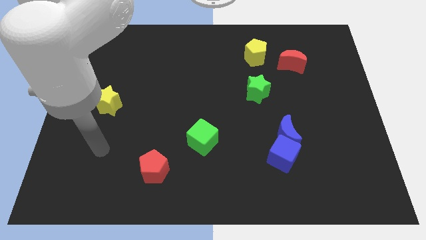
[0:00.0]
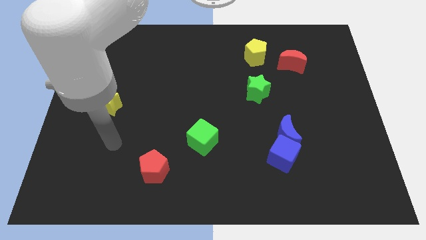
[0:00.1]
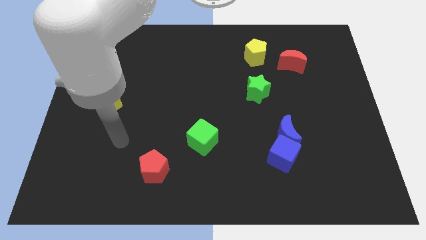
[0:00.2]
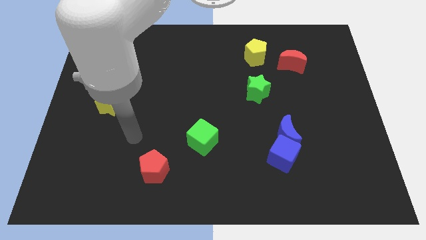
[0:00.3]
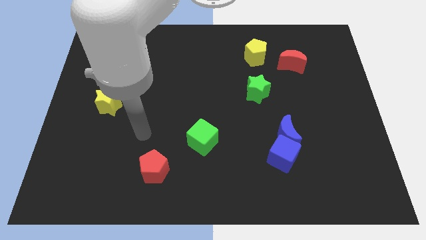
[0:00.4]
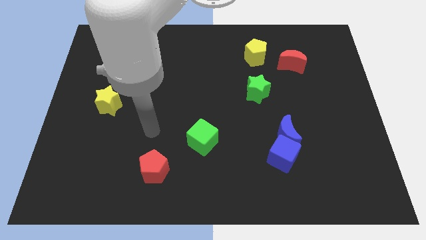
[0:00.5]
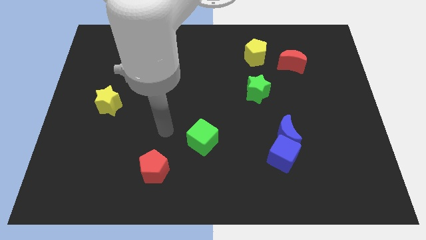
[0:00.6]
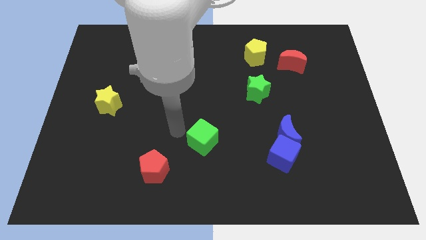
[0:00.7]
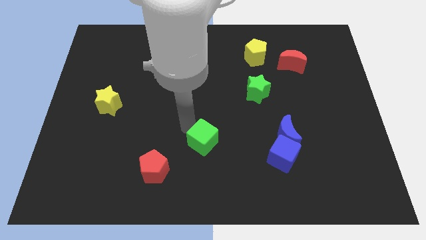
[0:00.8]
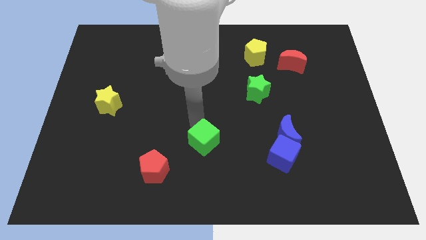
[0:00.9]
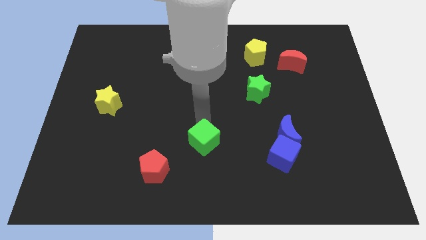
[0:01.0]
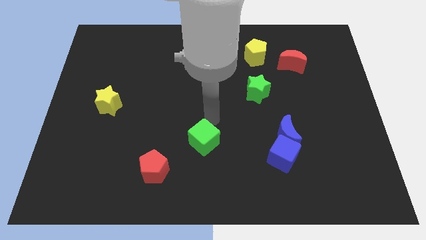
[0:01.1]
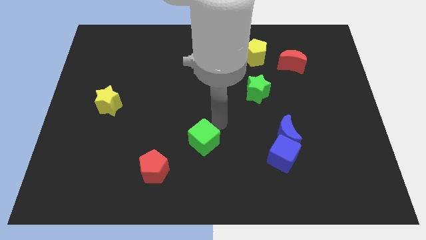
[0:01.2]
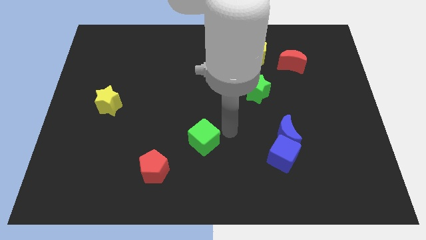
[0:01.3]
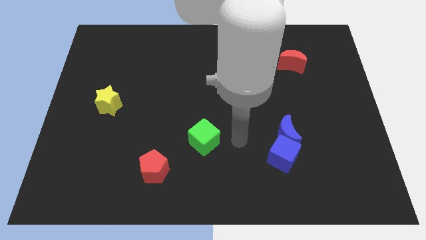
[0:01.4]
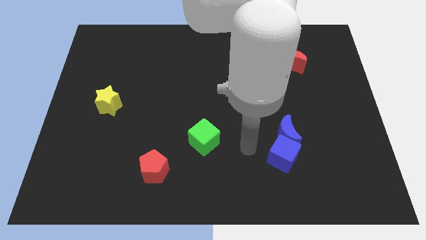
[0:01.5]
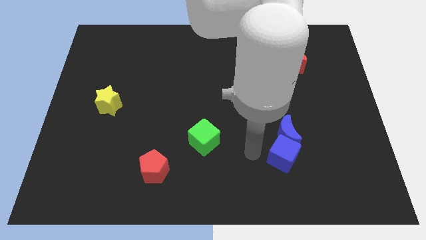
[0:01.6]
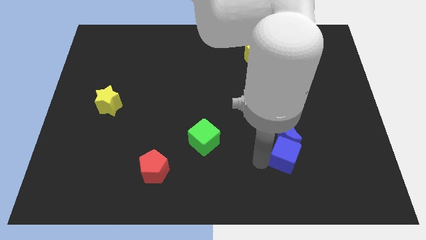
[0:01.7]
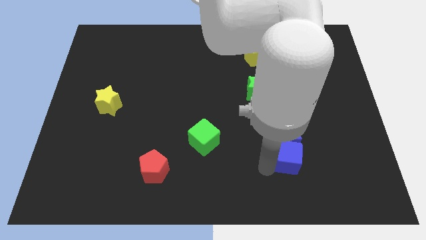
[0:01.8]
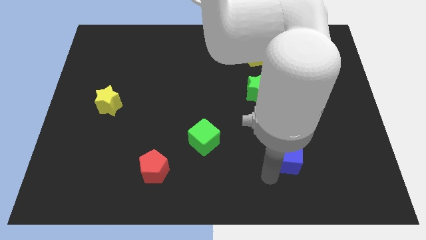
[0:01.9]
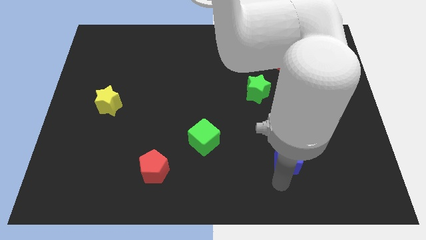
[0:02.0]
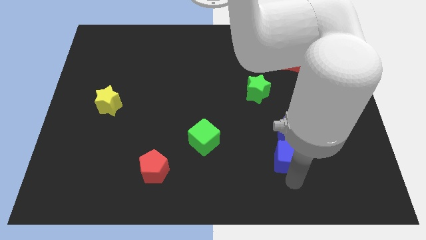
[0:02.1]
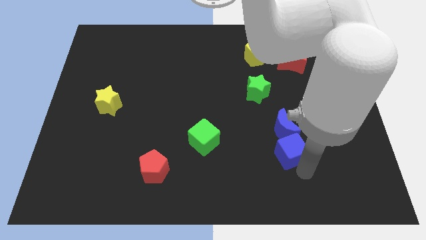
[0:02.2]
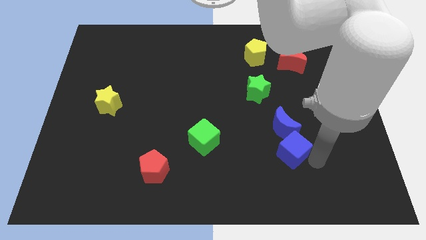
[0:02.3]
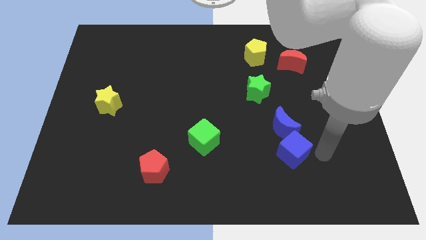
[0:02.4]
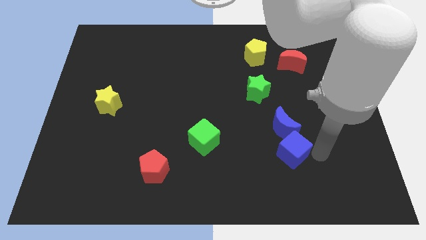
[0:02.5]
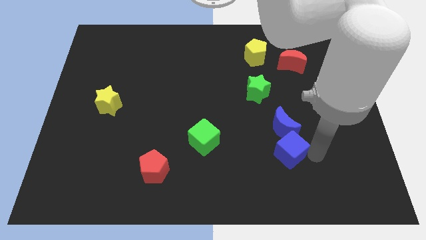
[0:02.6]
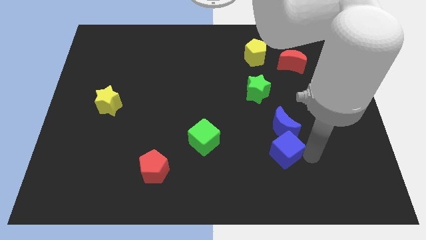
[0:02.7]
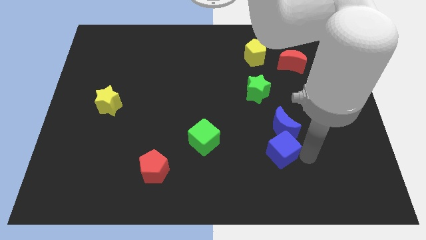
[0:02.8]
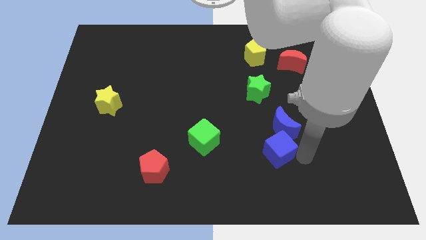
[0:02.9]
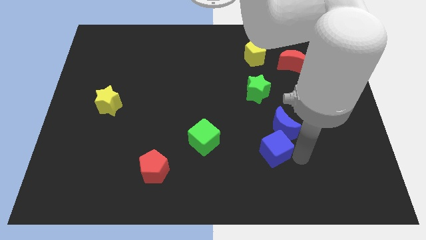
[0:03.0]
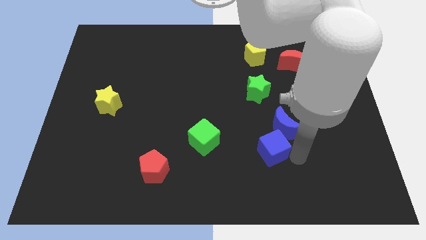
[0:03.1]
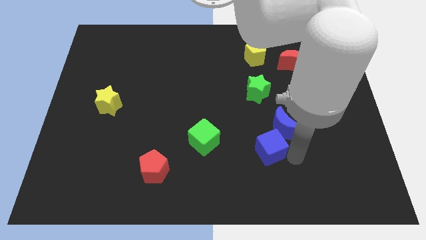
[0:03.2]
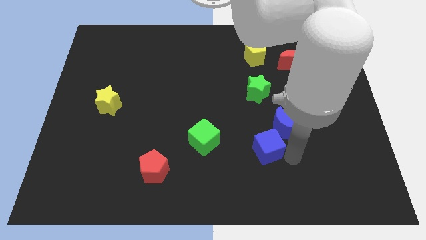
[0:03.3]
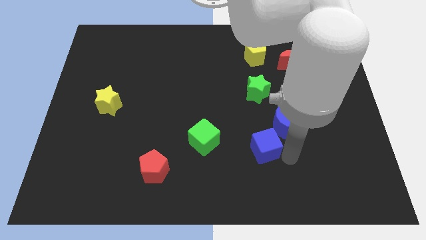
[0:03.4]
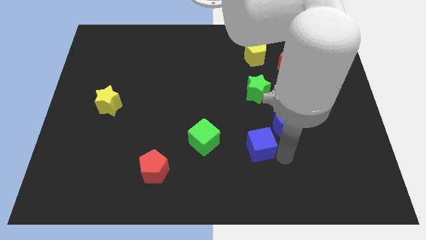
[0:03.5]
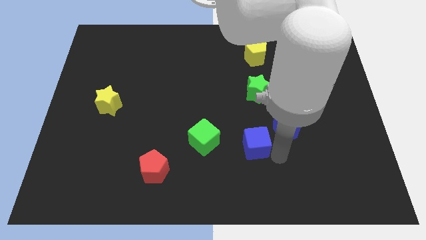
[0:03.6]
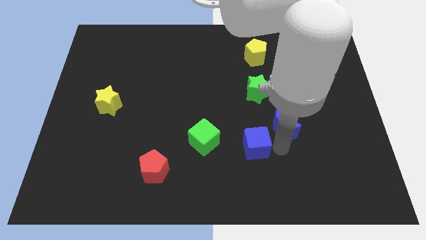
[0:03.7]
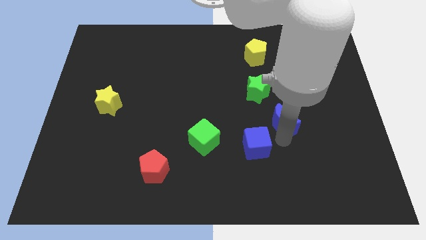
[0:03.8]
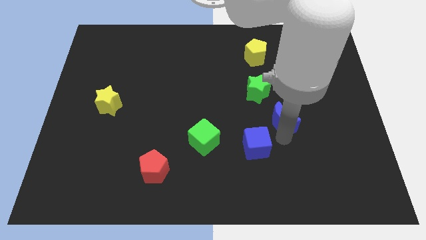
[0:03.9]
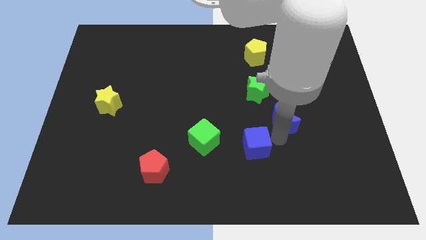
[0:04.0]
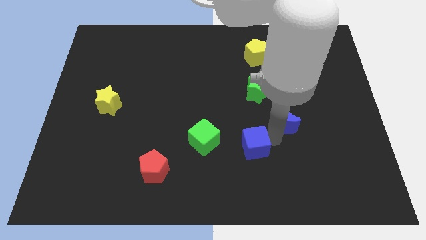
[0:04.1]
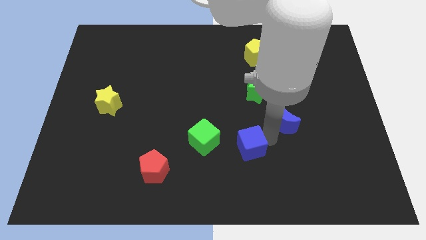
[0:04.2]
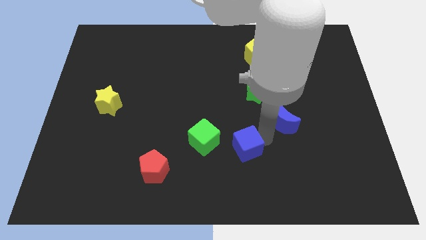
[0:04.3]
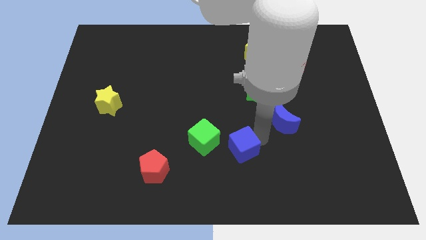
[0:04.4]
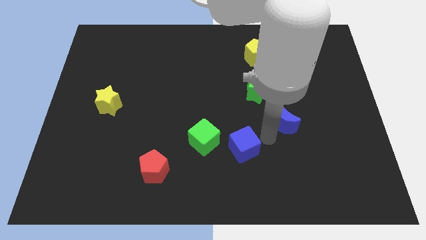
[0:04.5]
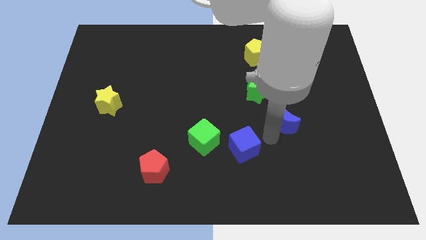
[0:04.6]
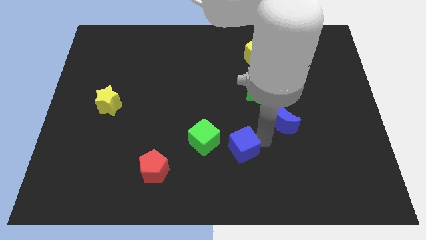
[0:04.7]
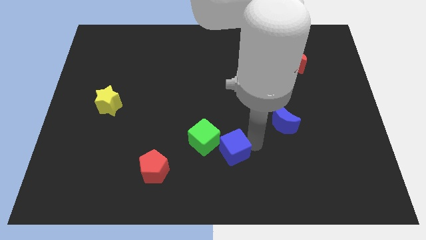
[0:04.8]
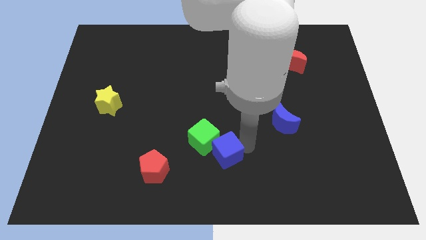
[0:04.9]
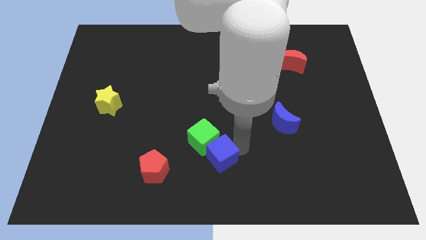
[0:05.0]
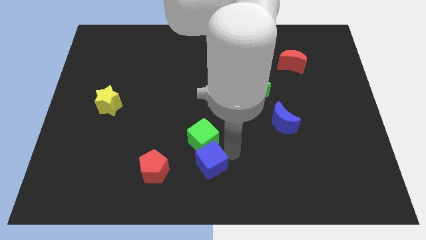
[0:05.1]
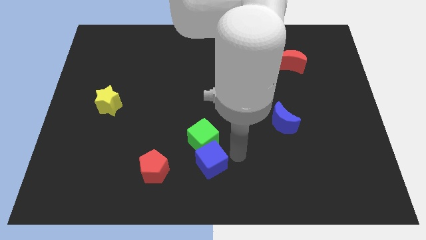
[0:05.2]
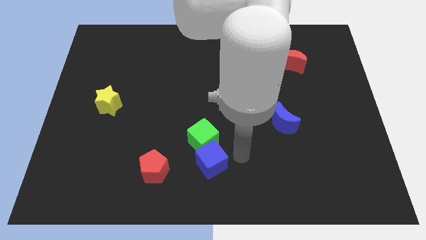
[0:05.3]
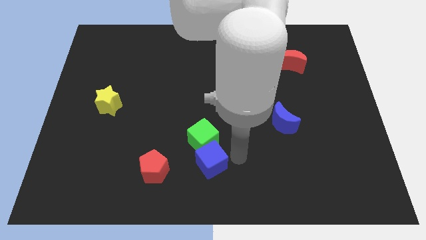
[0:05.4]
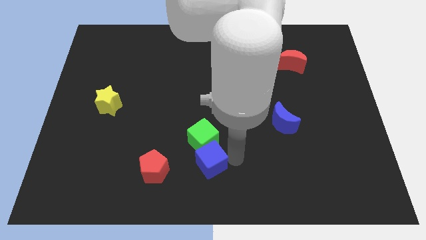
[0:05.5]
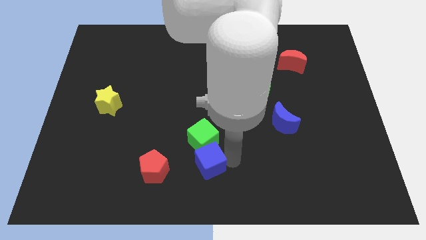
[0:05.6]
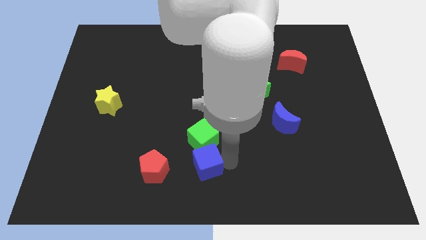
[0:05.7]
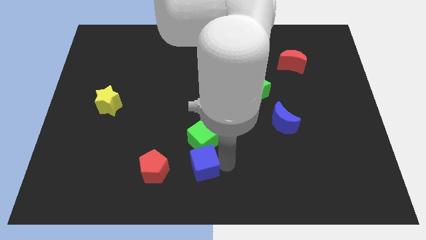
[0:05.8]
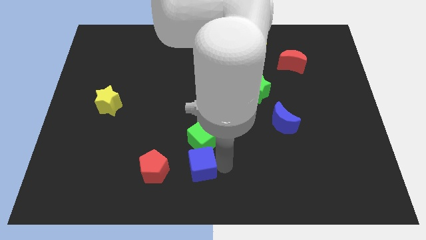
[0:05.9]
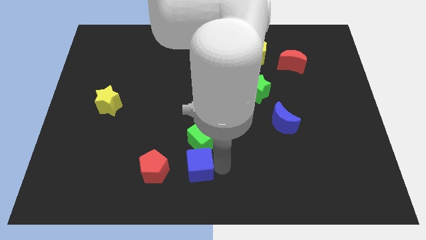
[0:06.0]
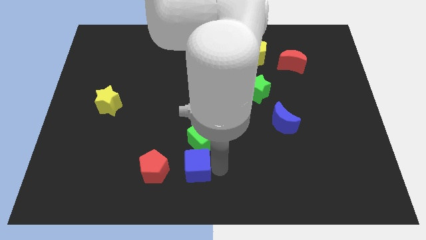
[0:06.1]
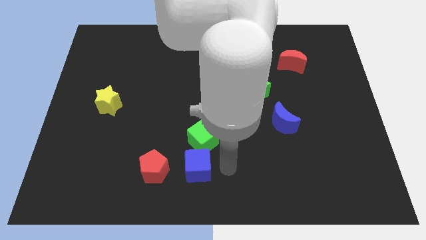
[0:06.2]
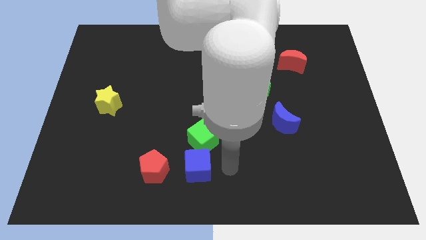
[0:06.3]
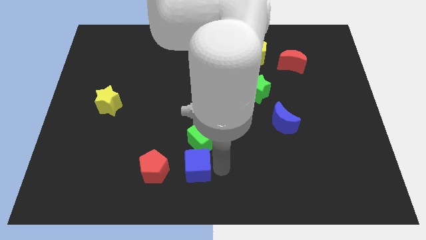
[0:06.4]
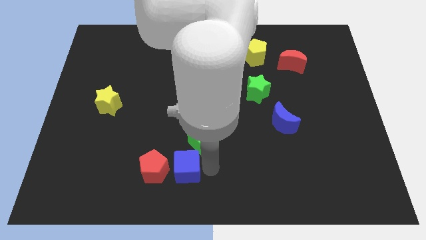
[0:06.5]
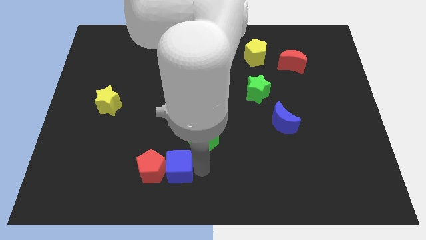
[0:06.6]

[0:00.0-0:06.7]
push the blue cube towards the red pentagon
